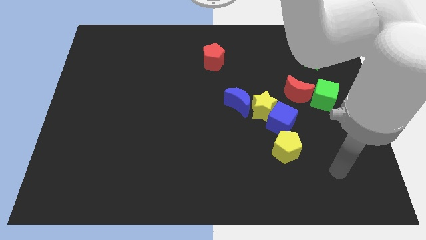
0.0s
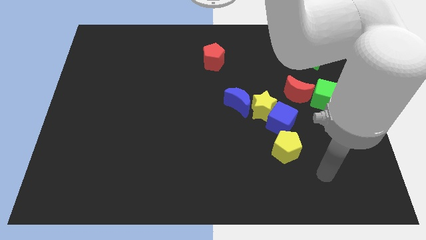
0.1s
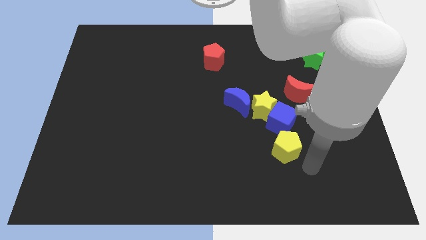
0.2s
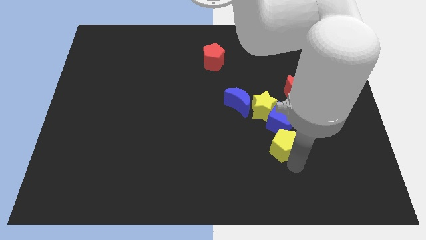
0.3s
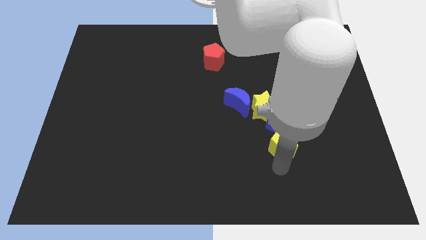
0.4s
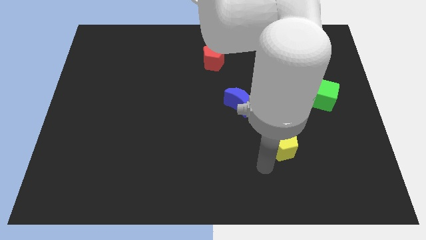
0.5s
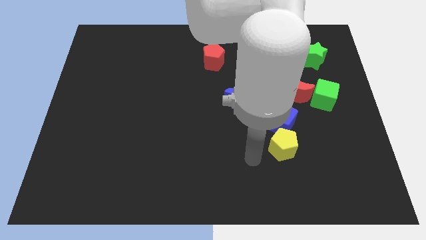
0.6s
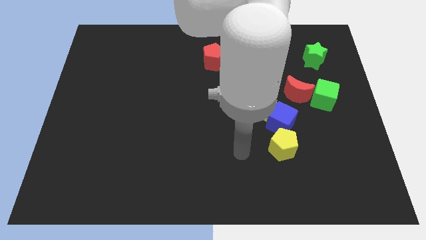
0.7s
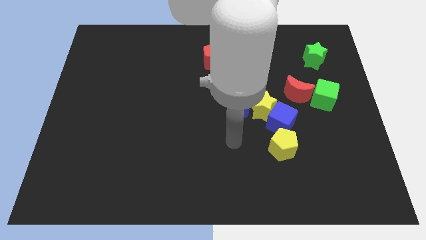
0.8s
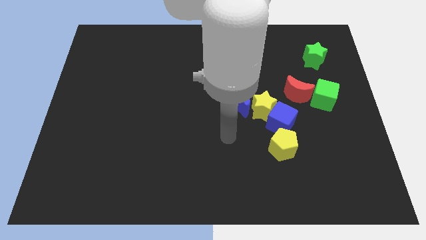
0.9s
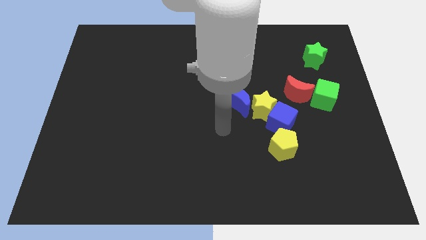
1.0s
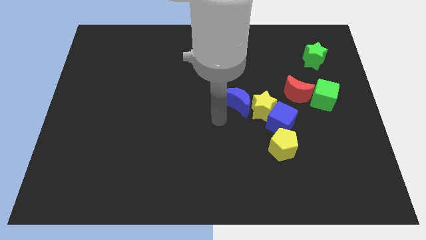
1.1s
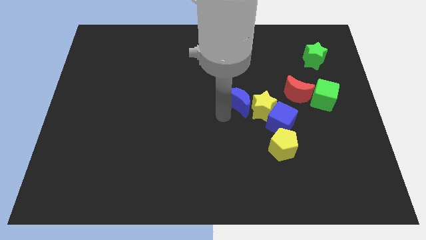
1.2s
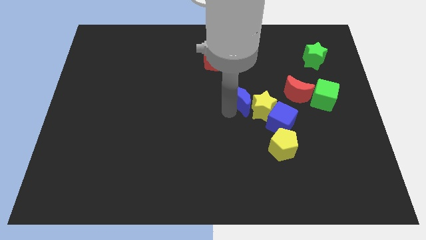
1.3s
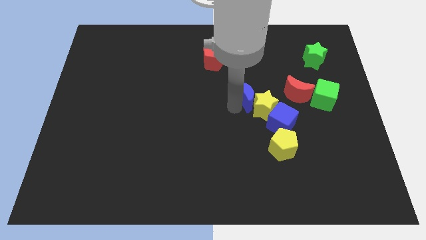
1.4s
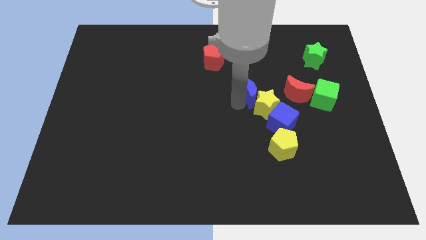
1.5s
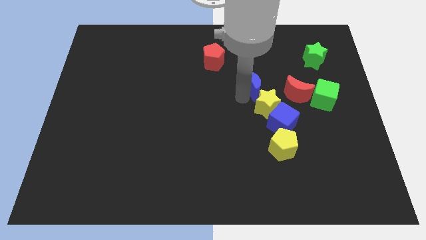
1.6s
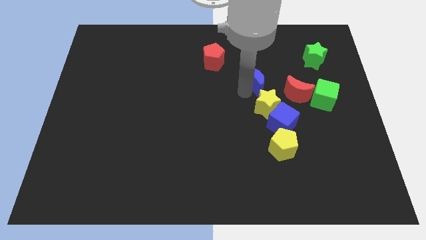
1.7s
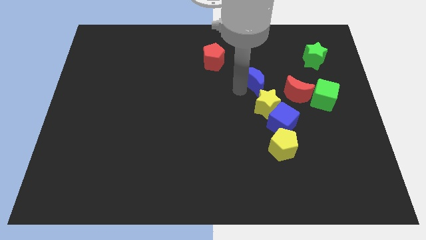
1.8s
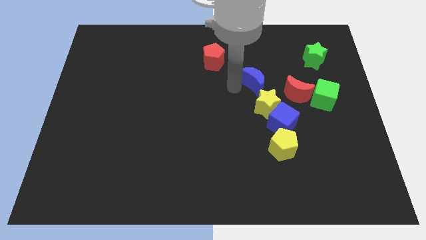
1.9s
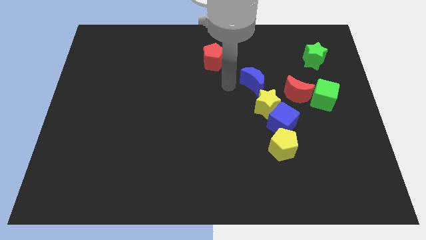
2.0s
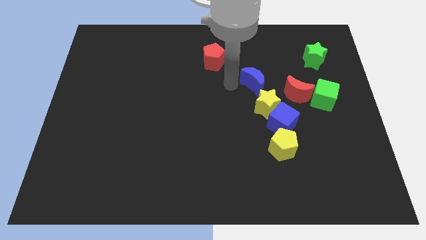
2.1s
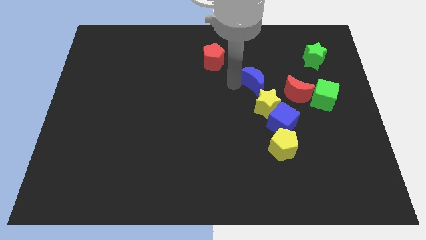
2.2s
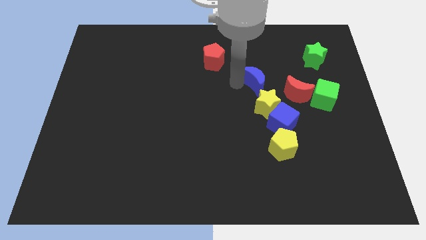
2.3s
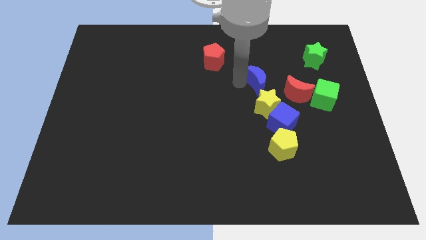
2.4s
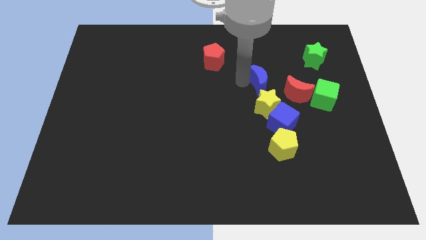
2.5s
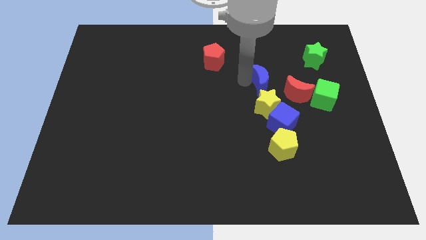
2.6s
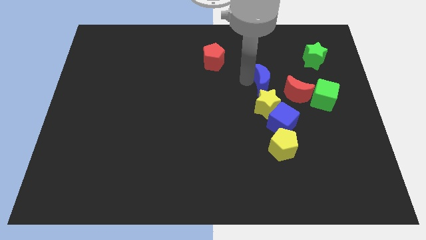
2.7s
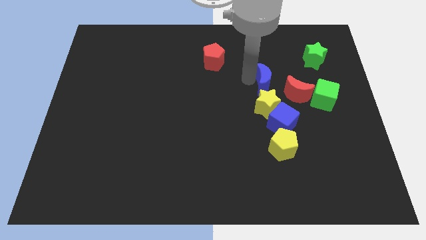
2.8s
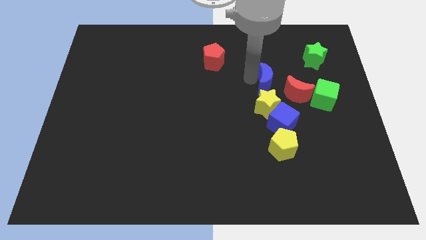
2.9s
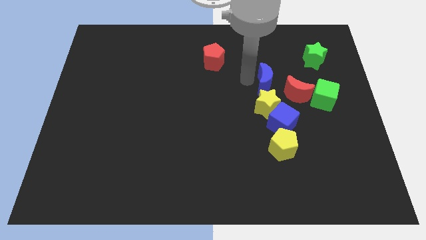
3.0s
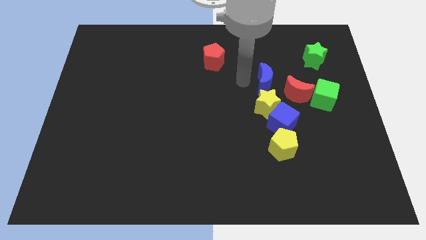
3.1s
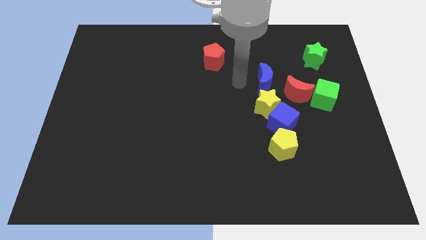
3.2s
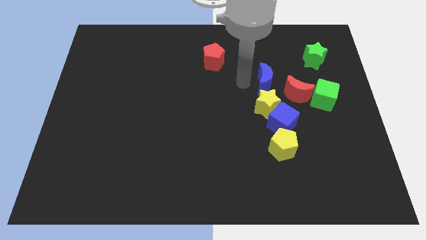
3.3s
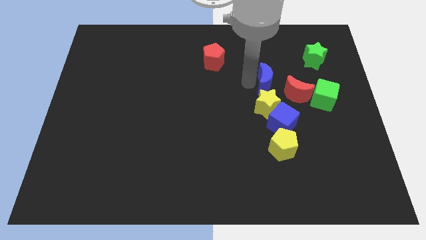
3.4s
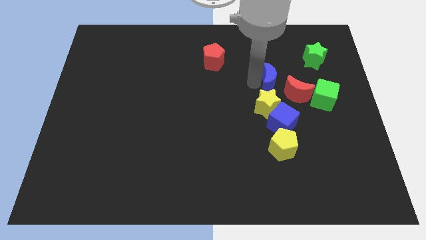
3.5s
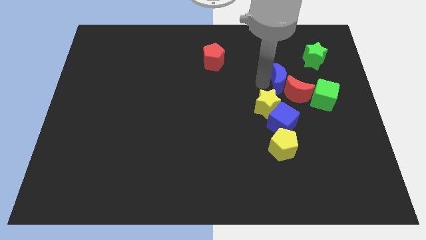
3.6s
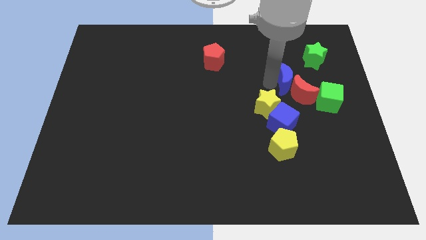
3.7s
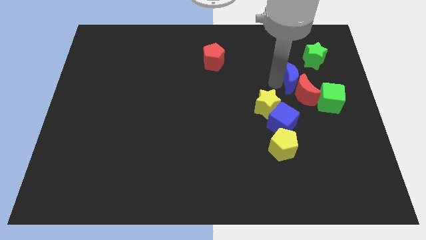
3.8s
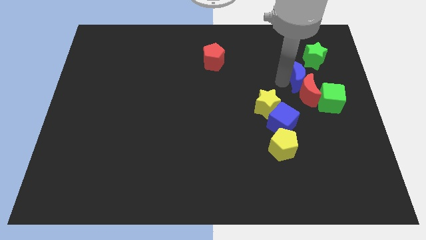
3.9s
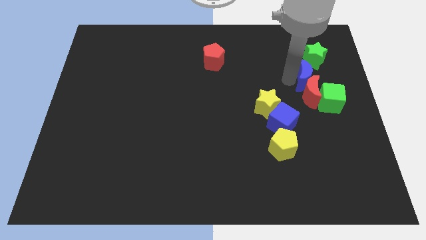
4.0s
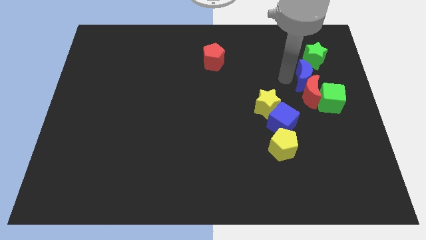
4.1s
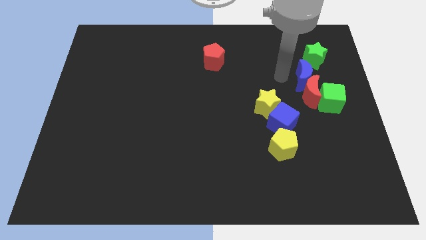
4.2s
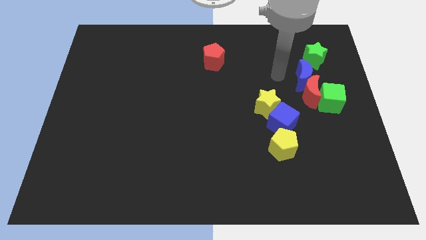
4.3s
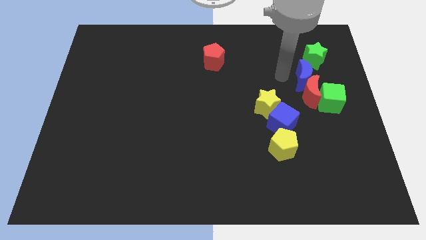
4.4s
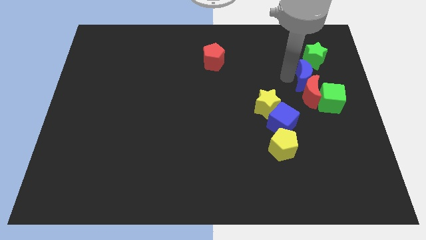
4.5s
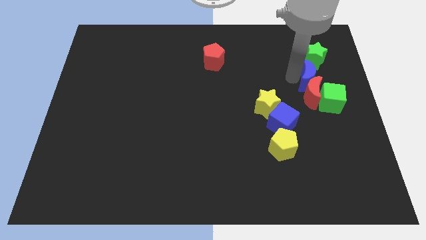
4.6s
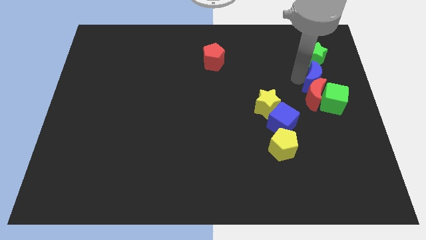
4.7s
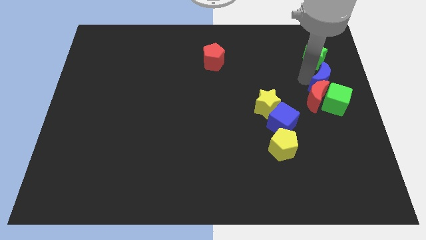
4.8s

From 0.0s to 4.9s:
slide the blue moon to the right side of the board

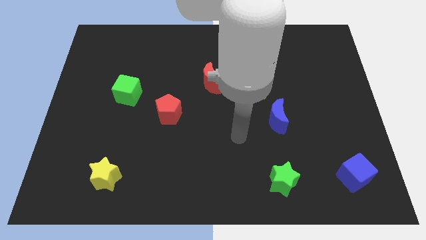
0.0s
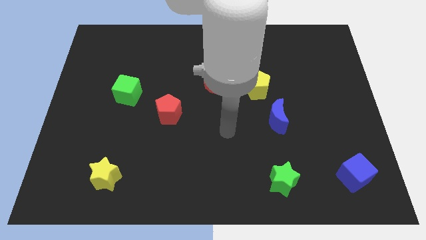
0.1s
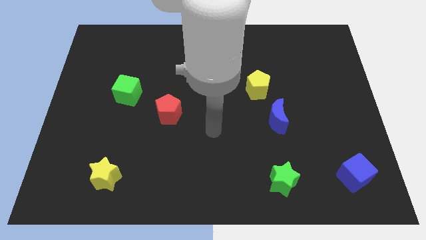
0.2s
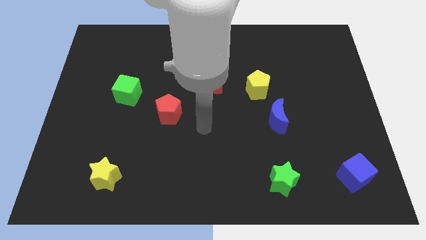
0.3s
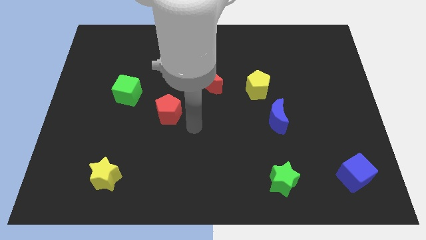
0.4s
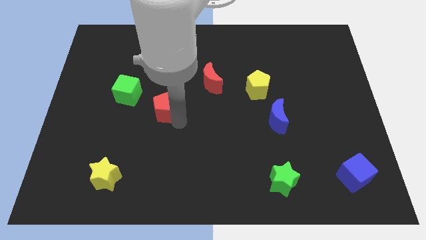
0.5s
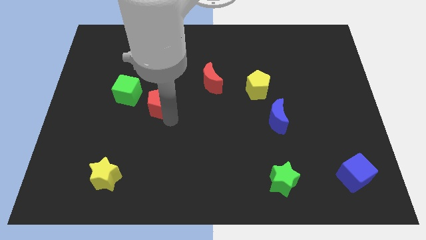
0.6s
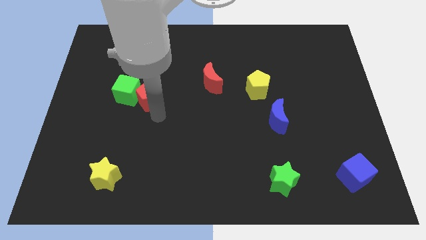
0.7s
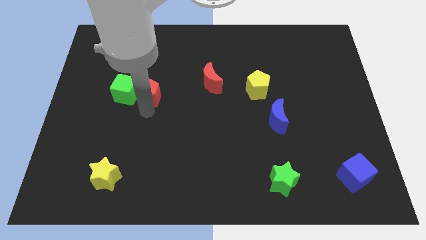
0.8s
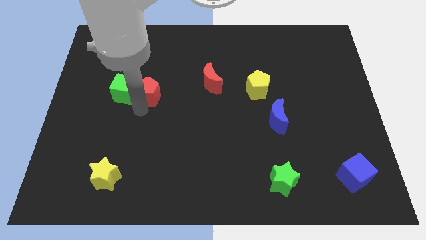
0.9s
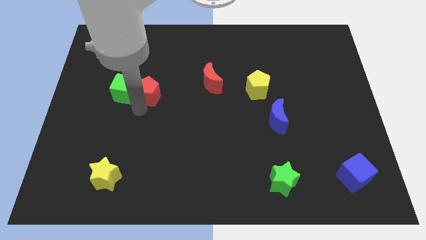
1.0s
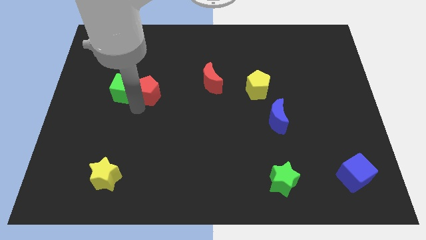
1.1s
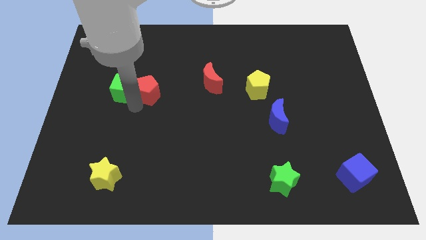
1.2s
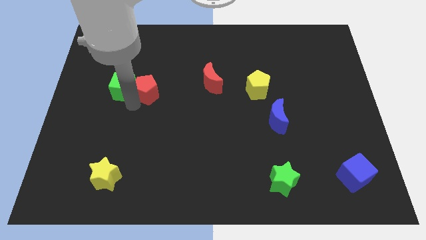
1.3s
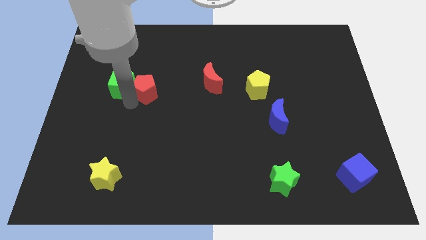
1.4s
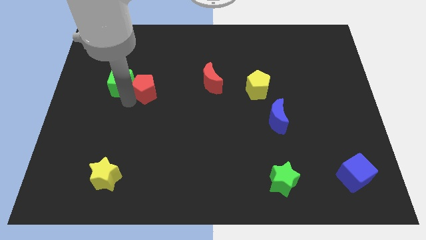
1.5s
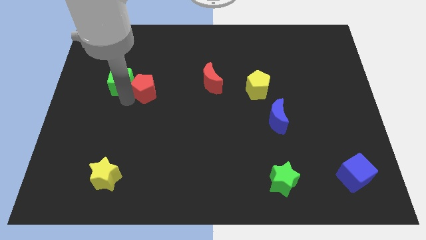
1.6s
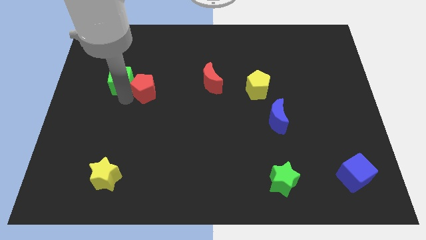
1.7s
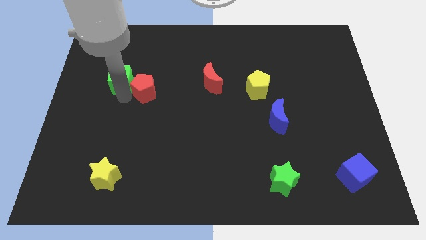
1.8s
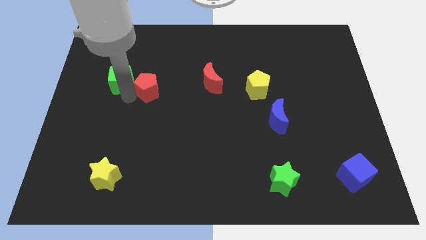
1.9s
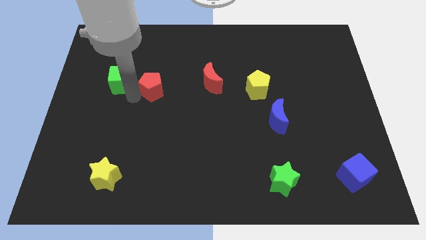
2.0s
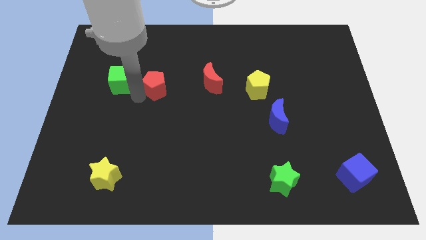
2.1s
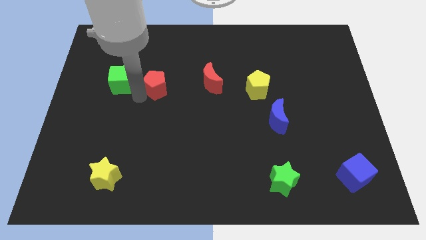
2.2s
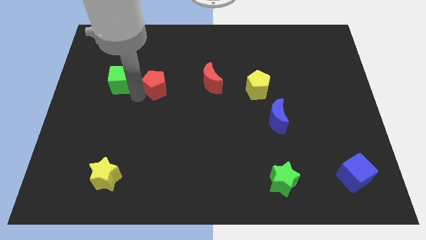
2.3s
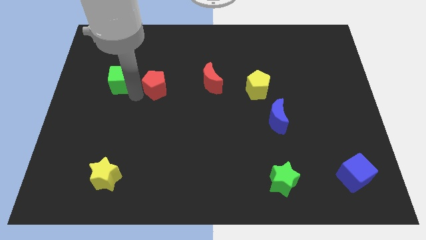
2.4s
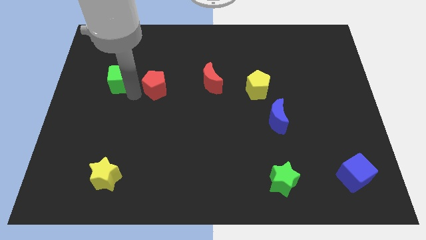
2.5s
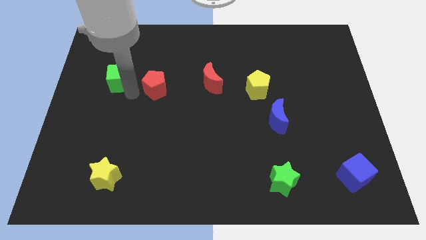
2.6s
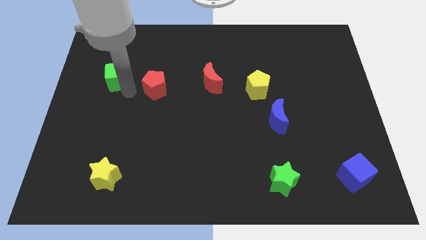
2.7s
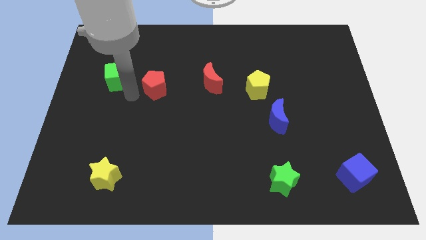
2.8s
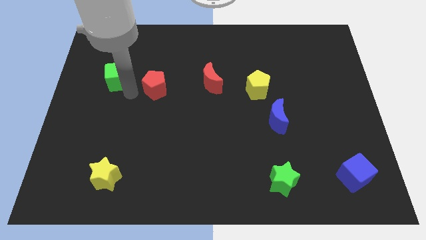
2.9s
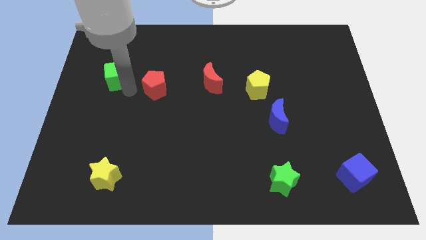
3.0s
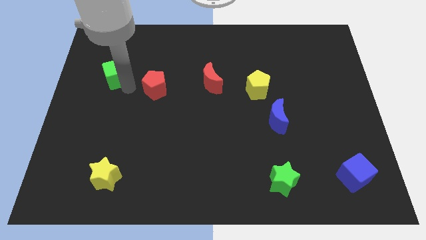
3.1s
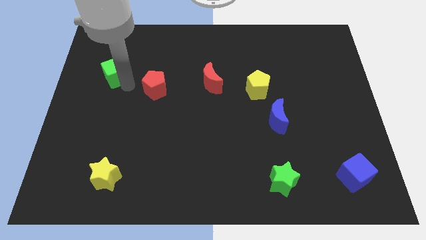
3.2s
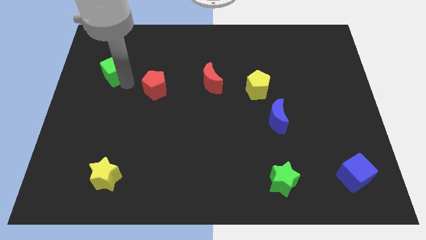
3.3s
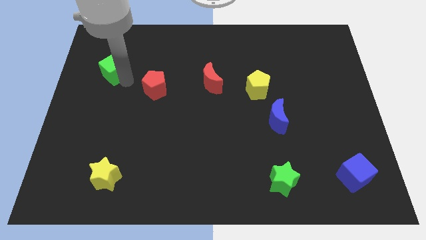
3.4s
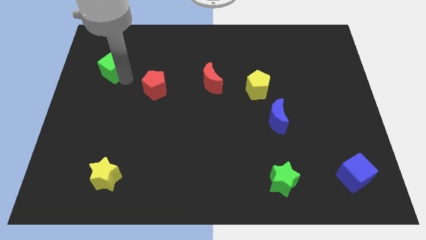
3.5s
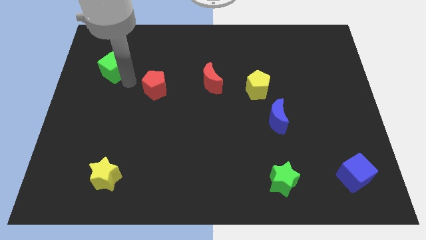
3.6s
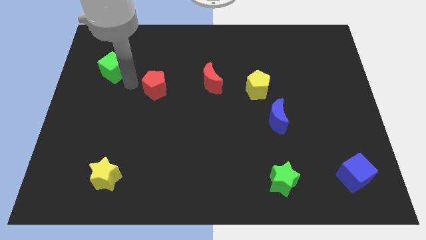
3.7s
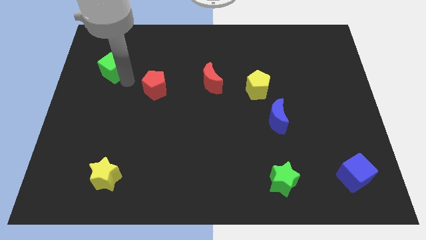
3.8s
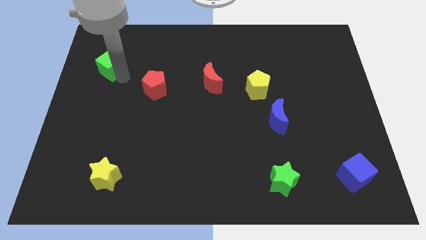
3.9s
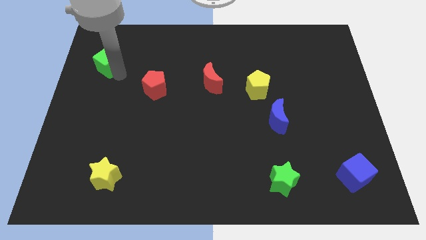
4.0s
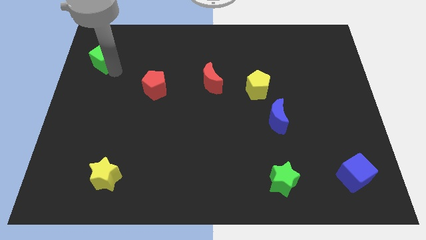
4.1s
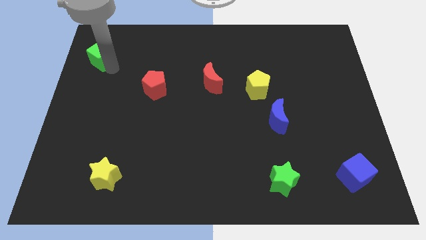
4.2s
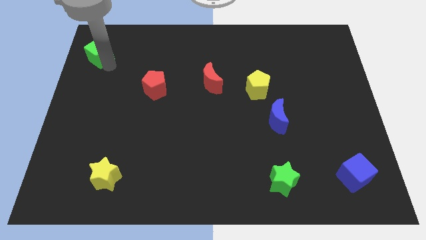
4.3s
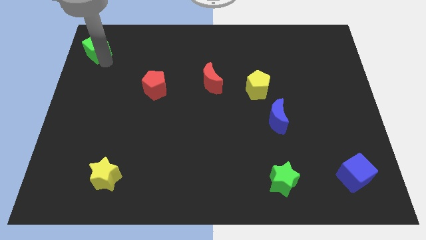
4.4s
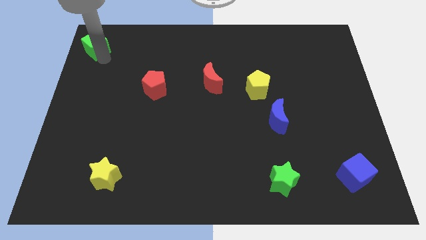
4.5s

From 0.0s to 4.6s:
put the green cube to the top left
